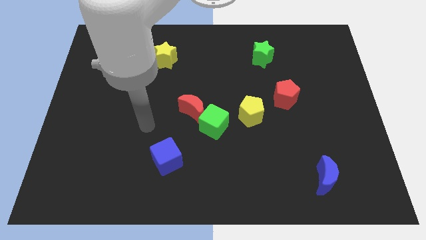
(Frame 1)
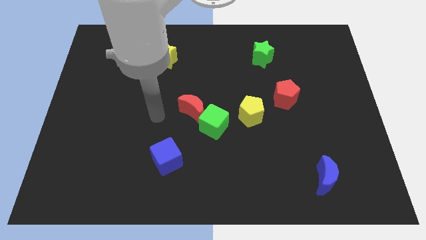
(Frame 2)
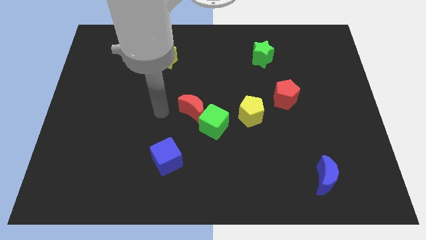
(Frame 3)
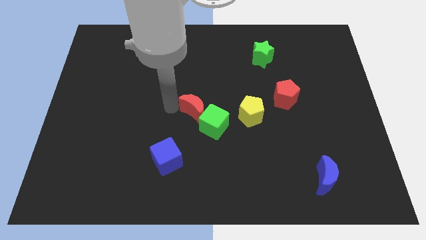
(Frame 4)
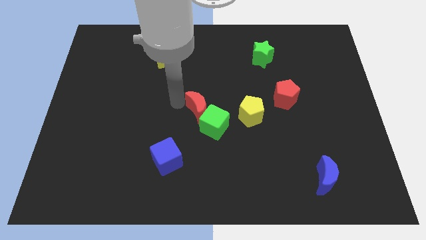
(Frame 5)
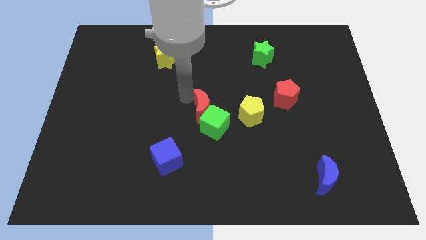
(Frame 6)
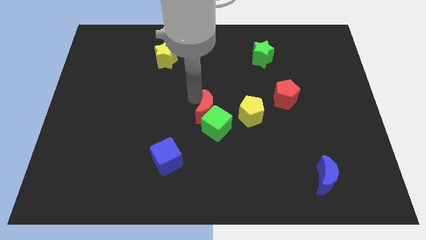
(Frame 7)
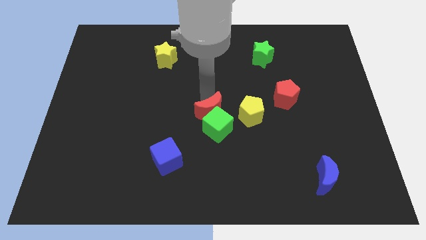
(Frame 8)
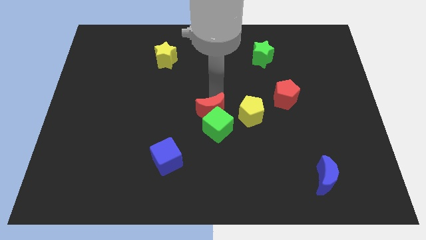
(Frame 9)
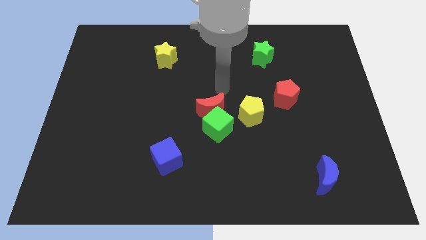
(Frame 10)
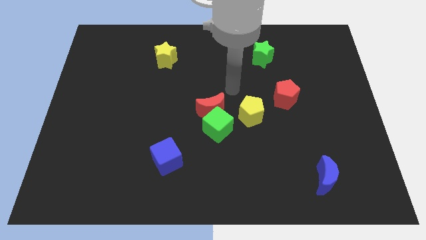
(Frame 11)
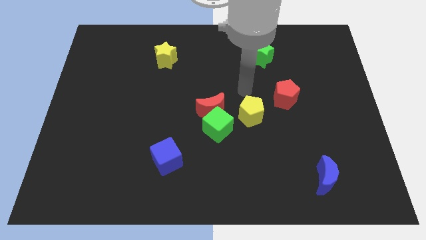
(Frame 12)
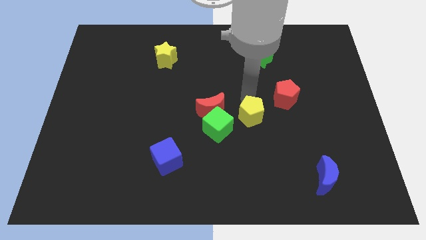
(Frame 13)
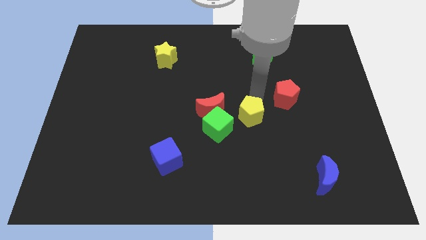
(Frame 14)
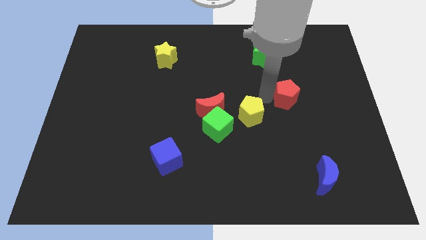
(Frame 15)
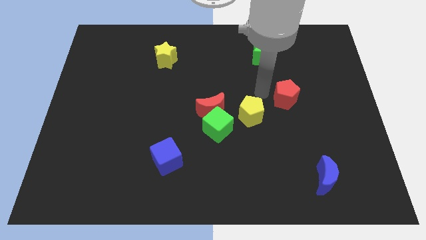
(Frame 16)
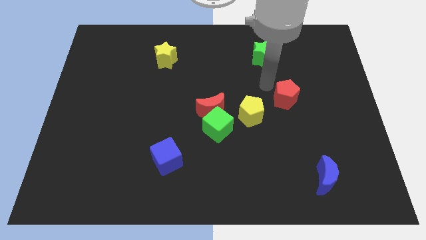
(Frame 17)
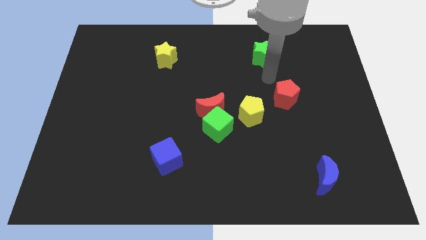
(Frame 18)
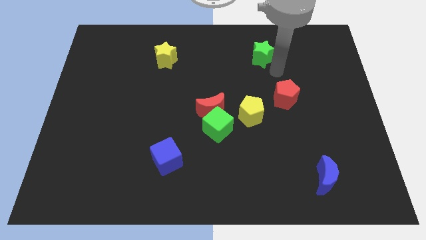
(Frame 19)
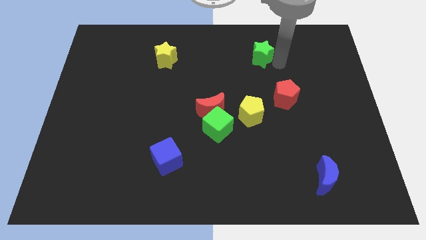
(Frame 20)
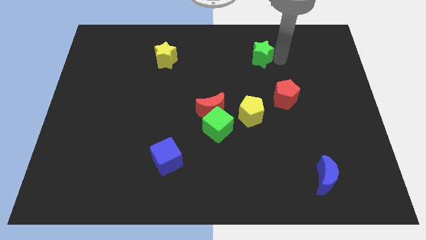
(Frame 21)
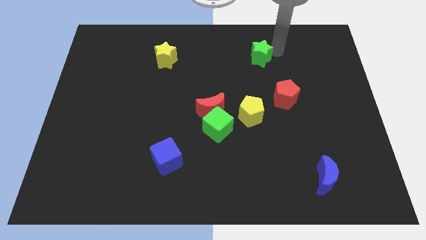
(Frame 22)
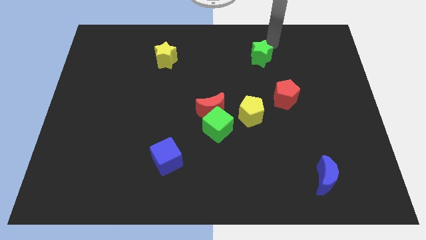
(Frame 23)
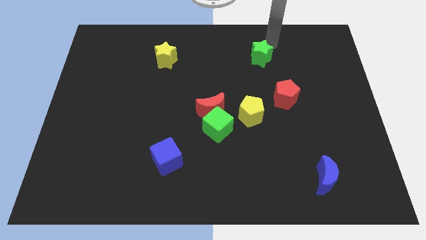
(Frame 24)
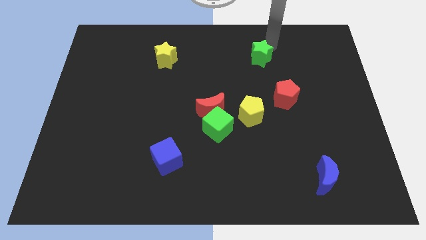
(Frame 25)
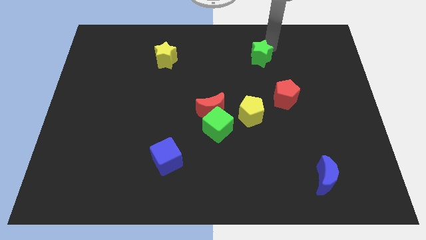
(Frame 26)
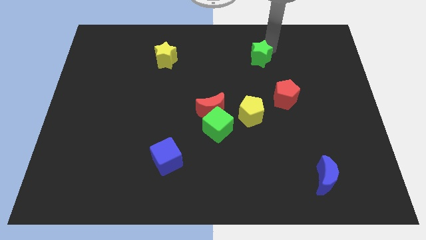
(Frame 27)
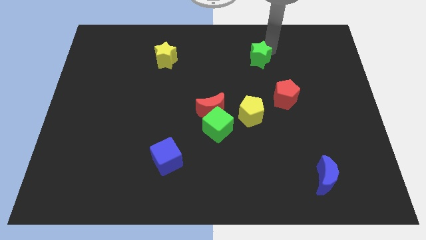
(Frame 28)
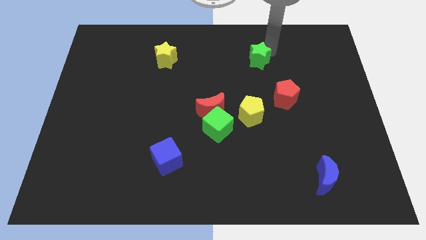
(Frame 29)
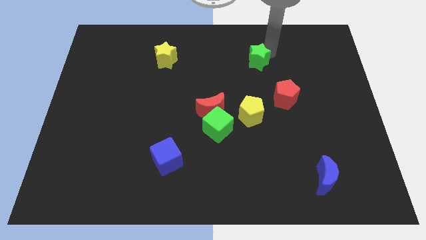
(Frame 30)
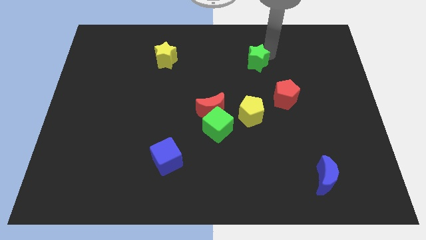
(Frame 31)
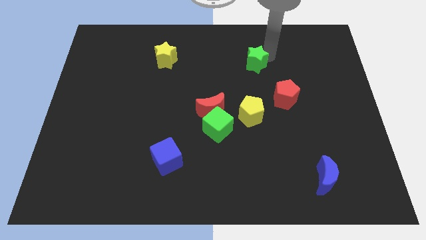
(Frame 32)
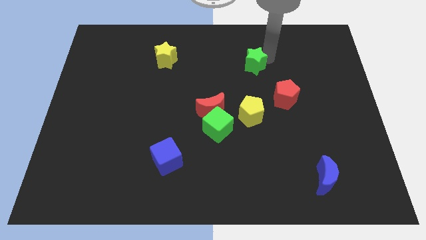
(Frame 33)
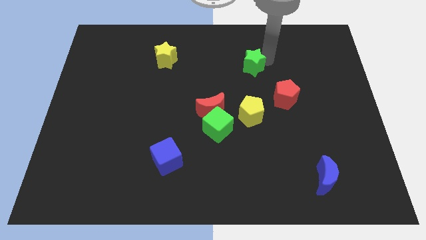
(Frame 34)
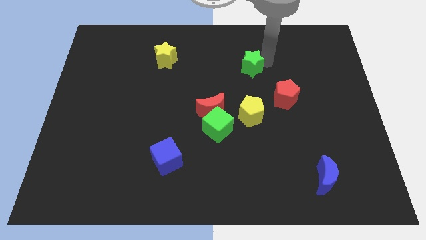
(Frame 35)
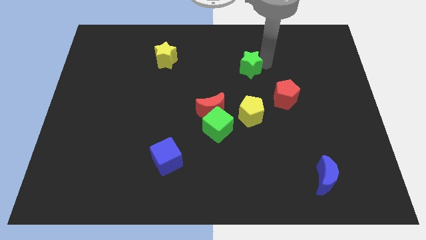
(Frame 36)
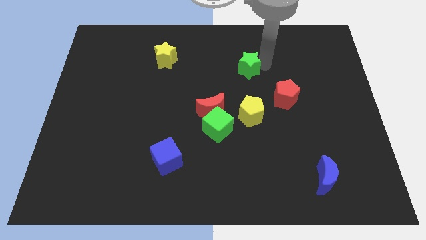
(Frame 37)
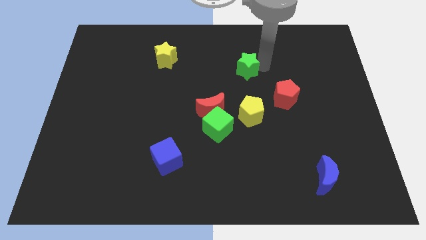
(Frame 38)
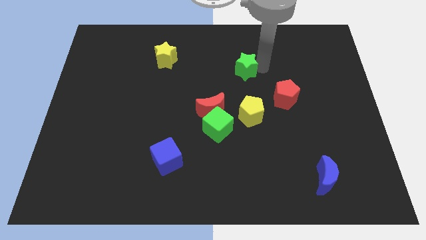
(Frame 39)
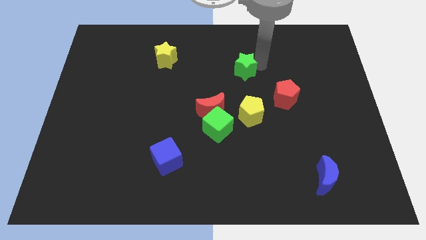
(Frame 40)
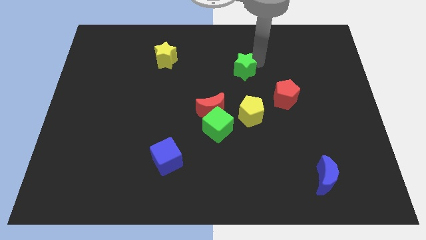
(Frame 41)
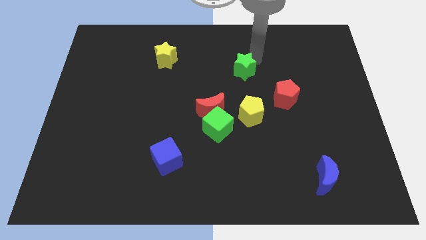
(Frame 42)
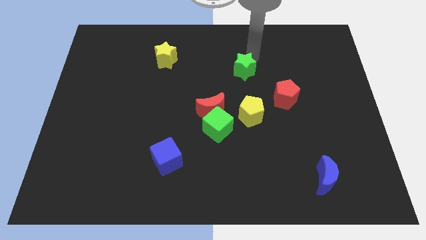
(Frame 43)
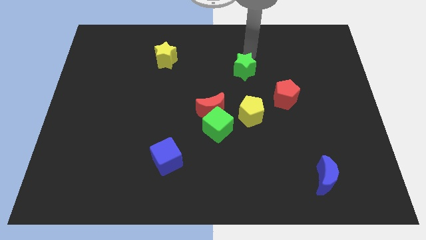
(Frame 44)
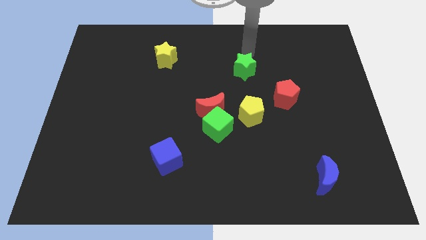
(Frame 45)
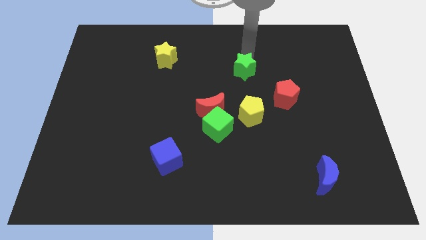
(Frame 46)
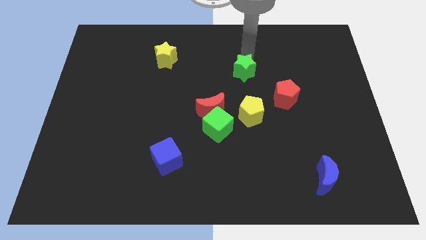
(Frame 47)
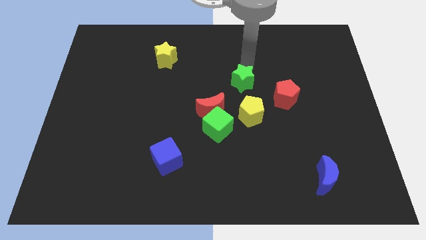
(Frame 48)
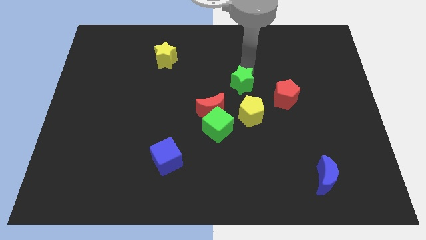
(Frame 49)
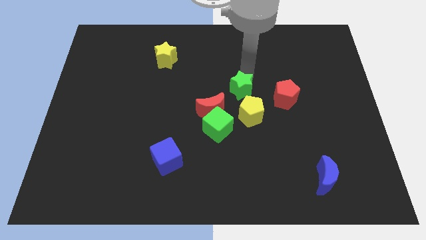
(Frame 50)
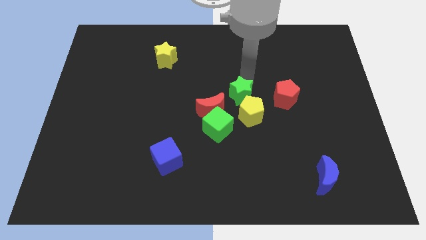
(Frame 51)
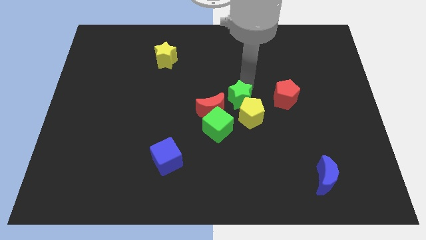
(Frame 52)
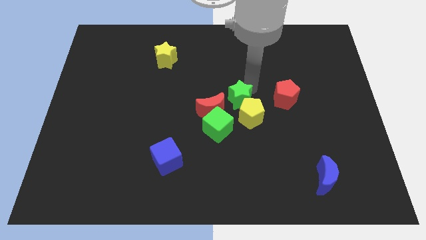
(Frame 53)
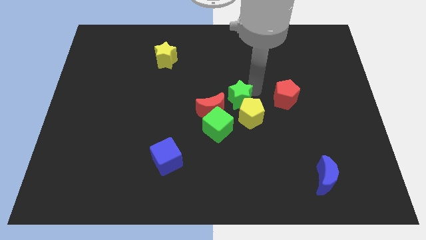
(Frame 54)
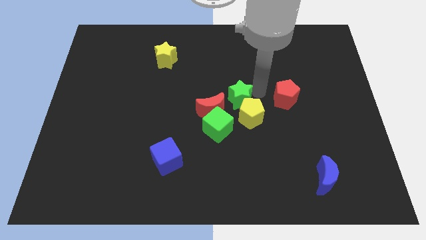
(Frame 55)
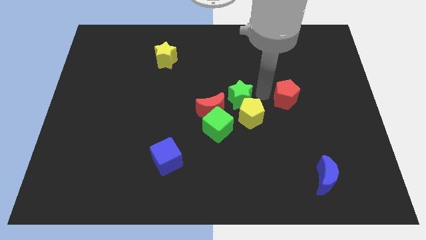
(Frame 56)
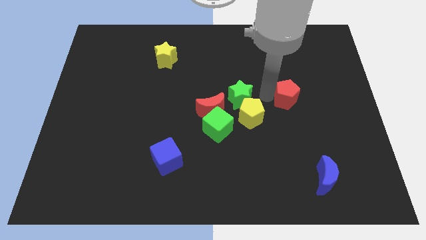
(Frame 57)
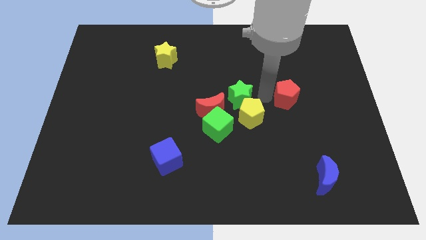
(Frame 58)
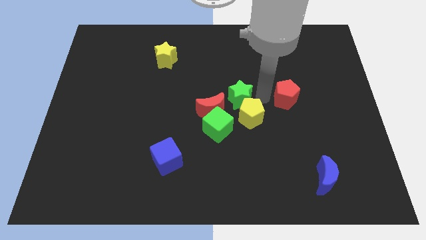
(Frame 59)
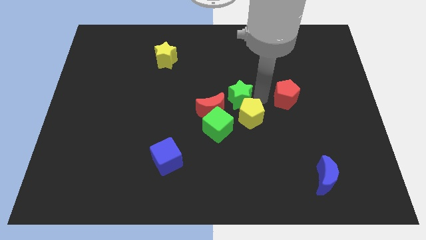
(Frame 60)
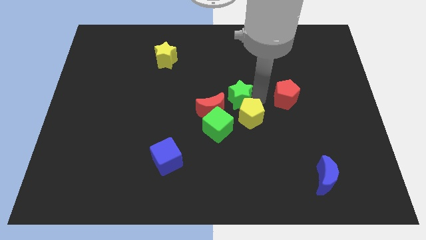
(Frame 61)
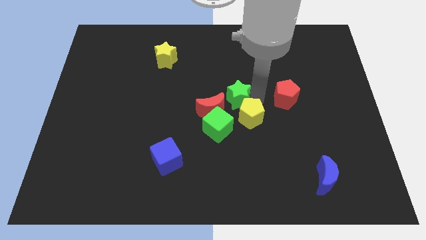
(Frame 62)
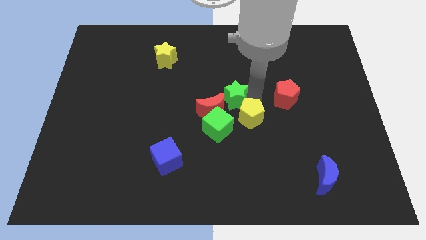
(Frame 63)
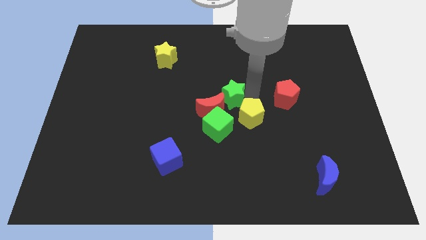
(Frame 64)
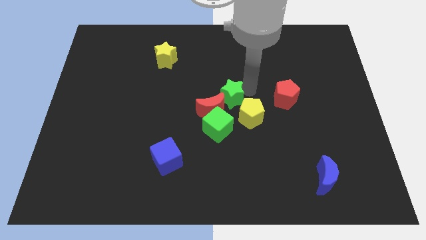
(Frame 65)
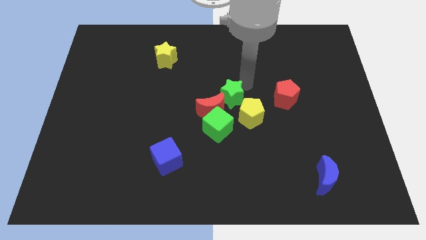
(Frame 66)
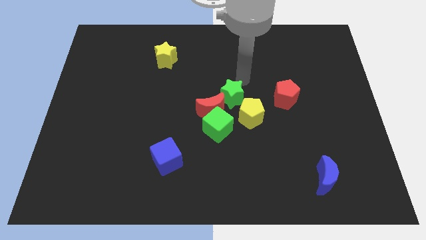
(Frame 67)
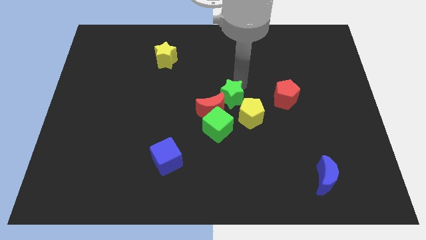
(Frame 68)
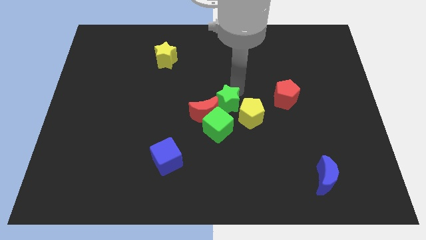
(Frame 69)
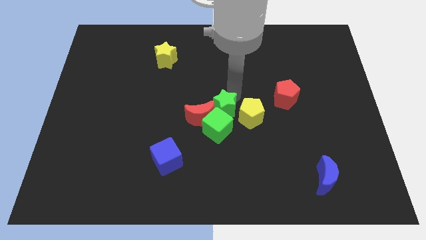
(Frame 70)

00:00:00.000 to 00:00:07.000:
slide the green star towards the green cube
